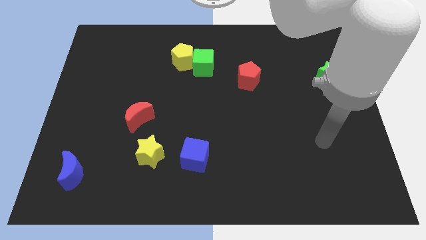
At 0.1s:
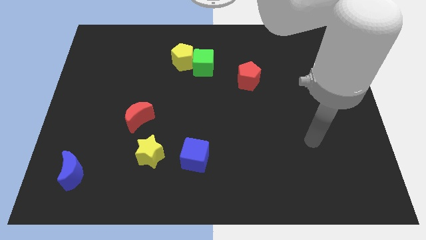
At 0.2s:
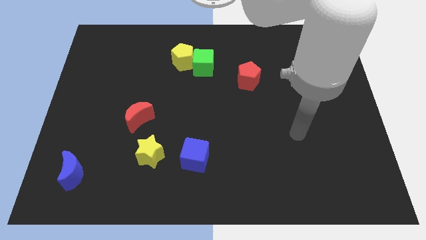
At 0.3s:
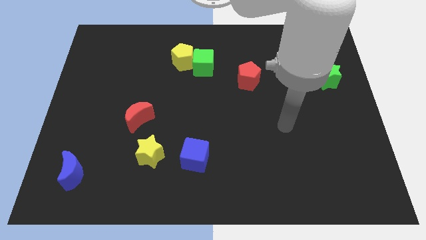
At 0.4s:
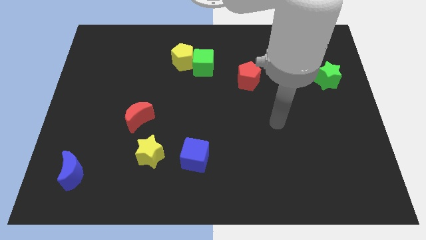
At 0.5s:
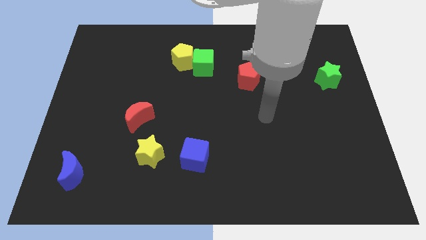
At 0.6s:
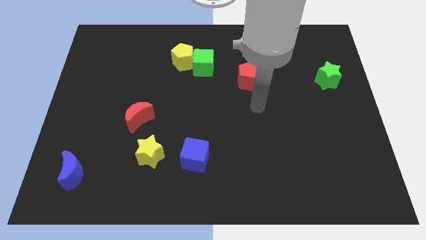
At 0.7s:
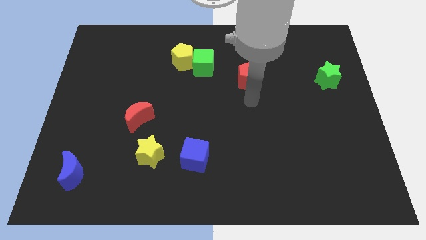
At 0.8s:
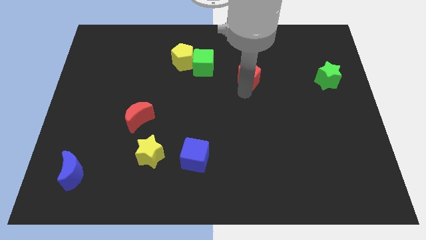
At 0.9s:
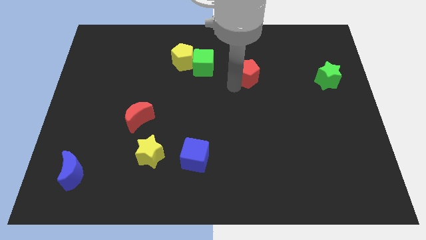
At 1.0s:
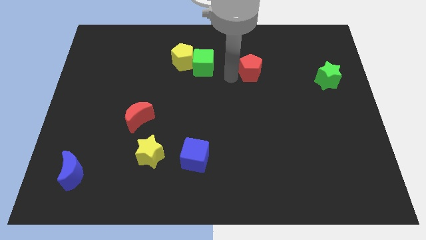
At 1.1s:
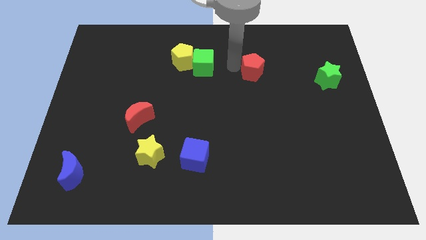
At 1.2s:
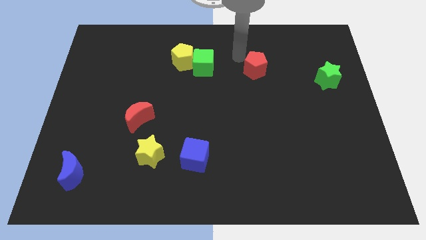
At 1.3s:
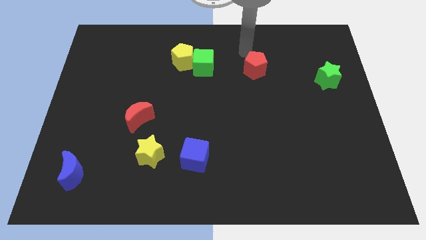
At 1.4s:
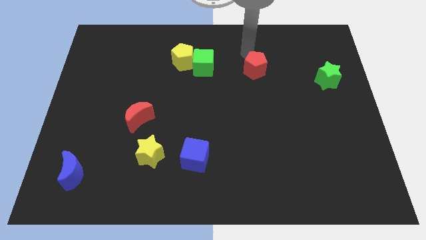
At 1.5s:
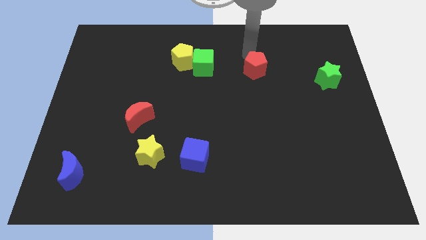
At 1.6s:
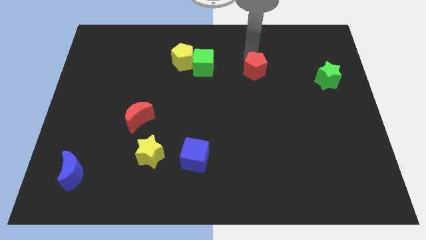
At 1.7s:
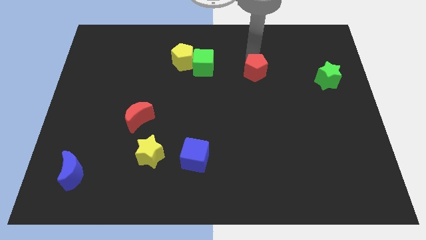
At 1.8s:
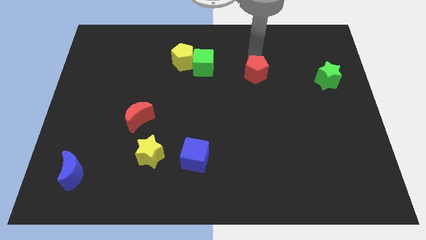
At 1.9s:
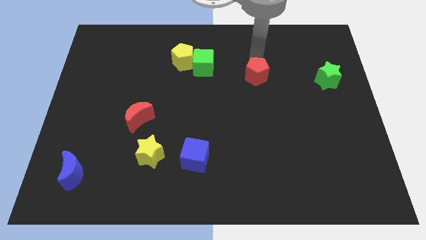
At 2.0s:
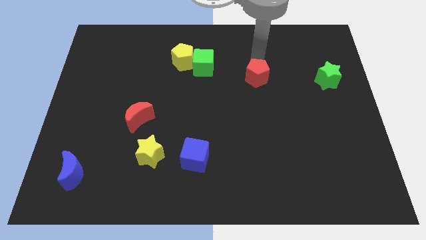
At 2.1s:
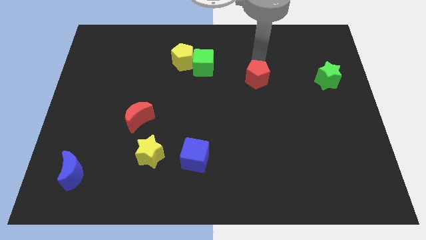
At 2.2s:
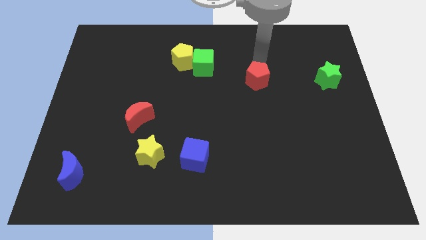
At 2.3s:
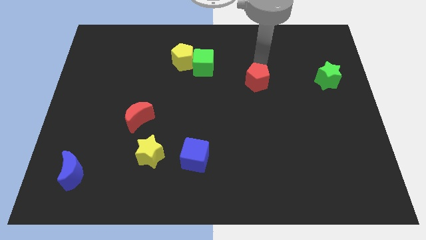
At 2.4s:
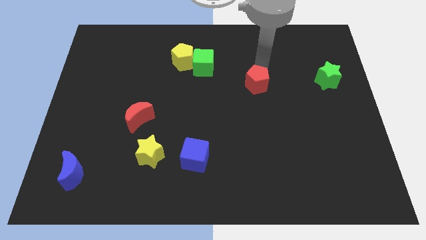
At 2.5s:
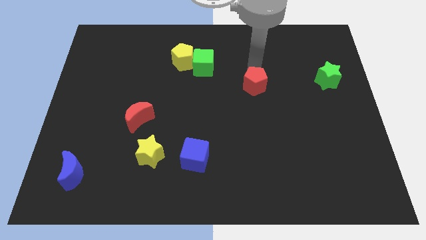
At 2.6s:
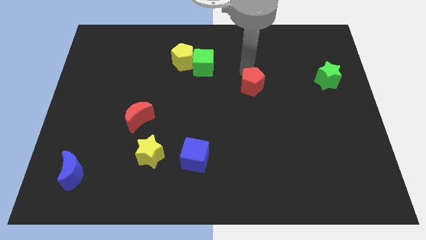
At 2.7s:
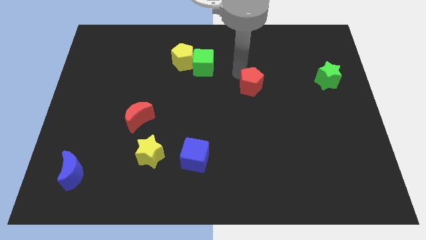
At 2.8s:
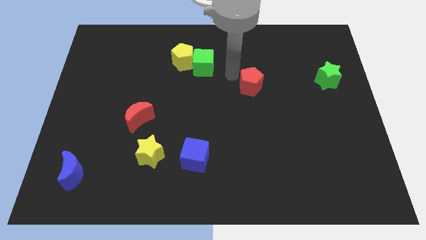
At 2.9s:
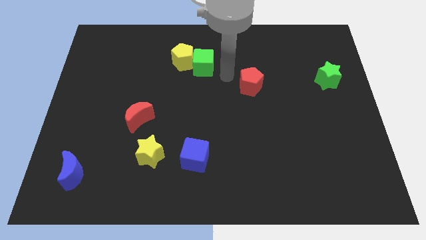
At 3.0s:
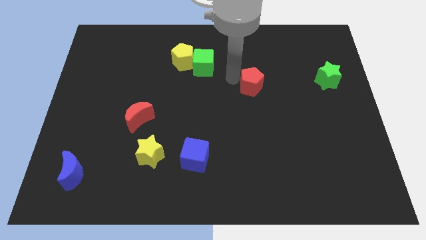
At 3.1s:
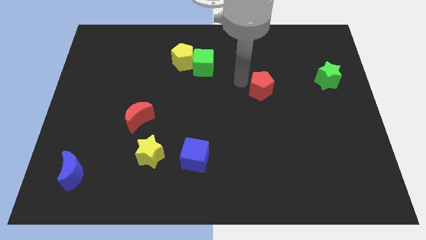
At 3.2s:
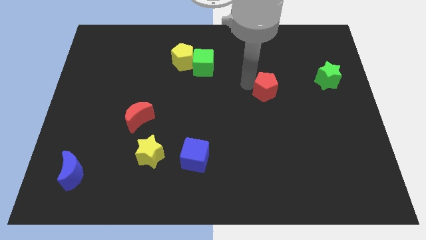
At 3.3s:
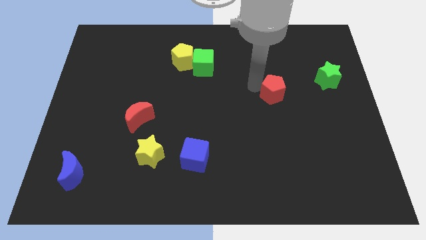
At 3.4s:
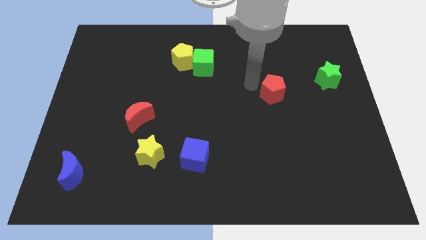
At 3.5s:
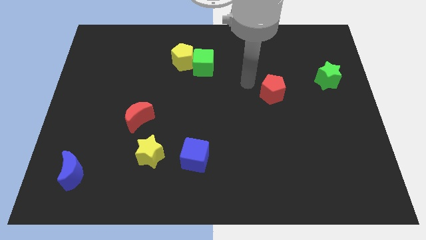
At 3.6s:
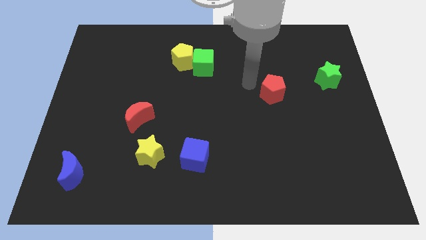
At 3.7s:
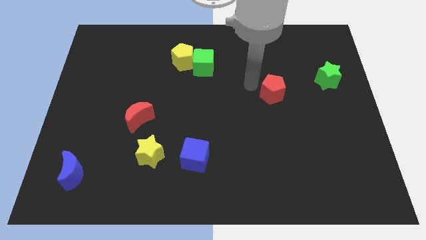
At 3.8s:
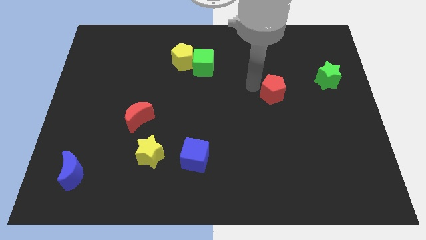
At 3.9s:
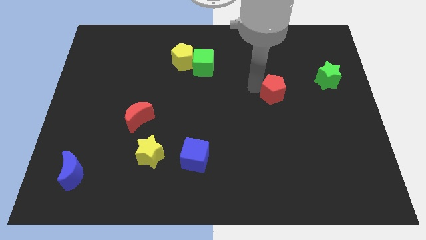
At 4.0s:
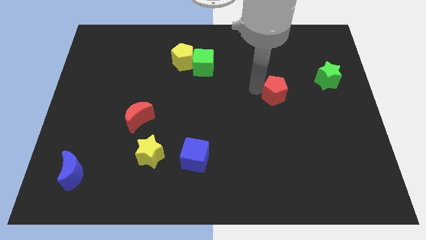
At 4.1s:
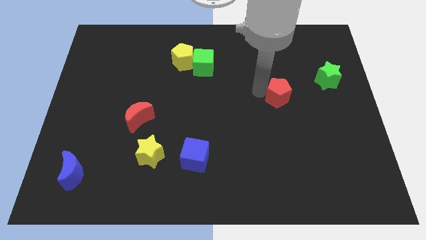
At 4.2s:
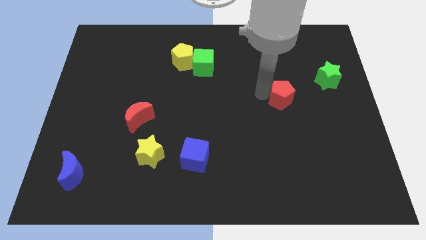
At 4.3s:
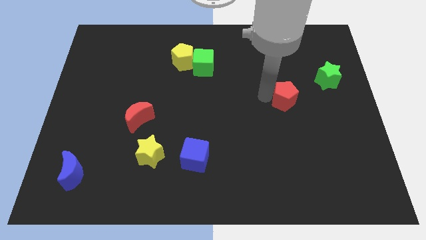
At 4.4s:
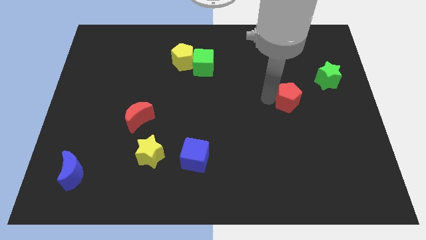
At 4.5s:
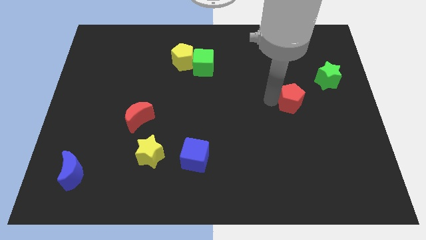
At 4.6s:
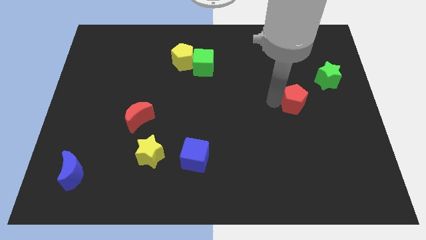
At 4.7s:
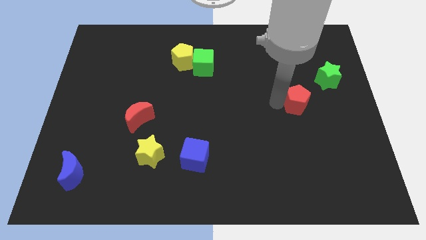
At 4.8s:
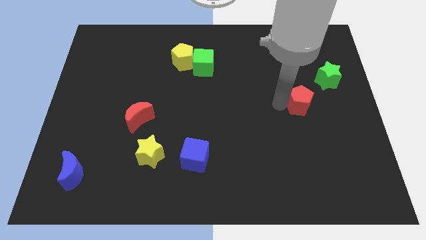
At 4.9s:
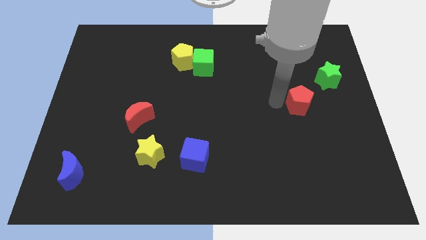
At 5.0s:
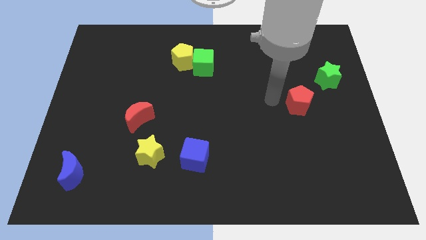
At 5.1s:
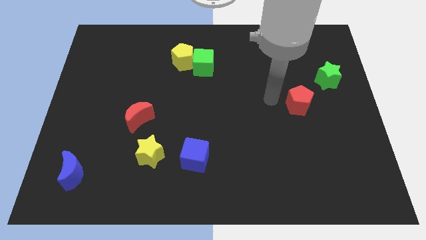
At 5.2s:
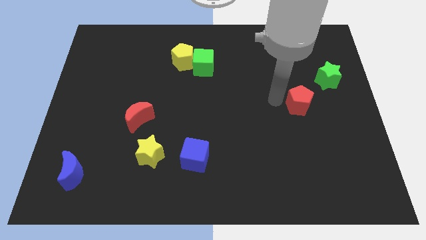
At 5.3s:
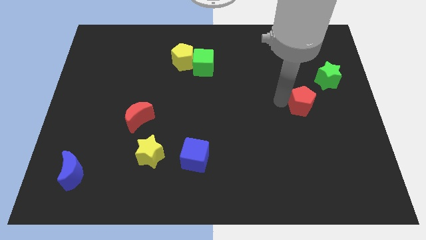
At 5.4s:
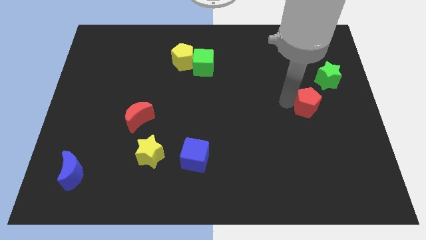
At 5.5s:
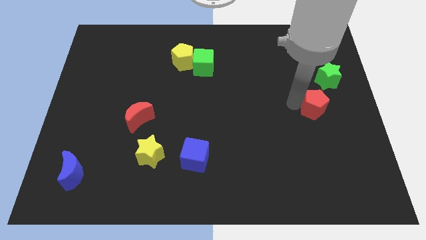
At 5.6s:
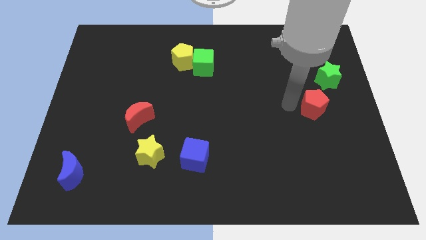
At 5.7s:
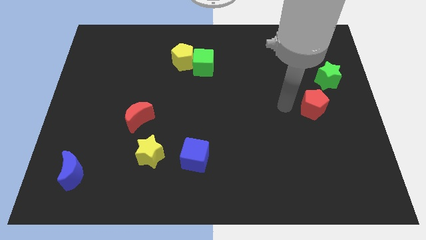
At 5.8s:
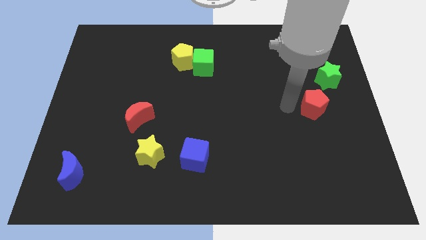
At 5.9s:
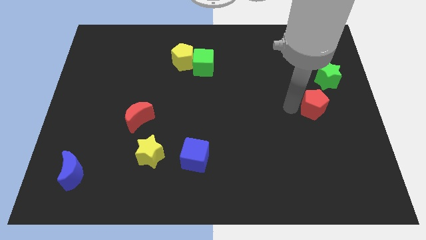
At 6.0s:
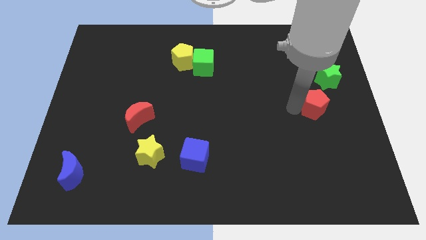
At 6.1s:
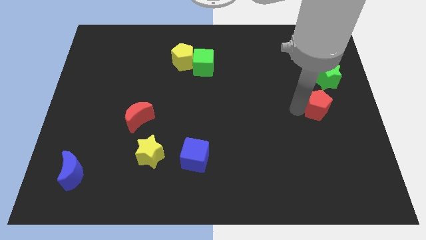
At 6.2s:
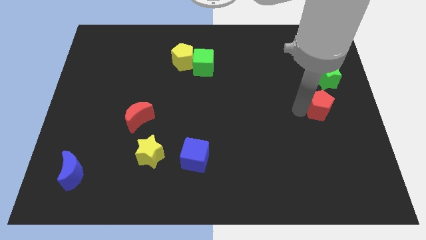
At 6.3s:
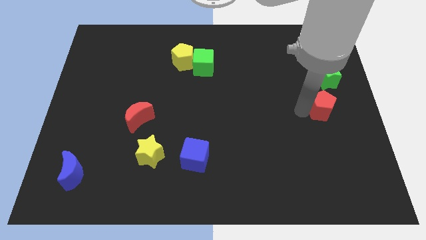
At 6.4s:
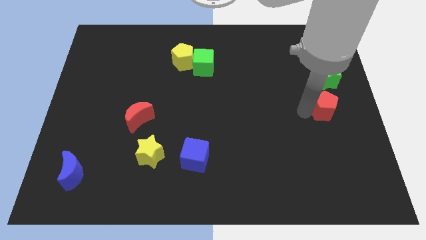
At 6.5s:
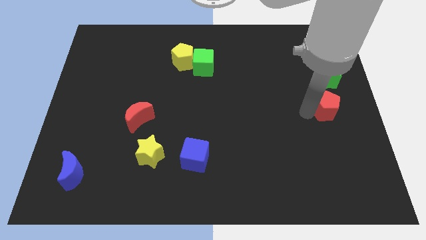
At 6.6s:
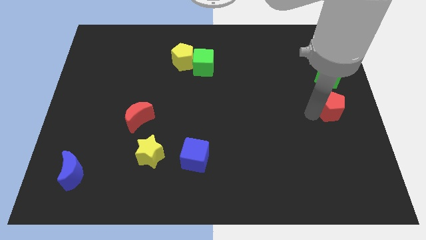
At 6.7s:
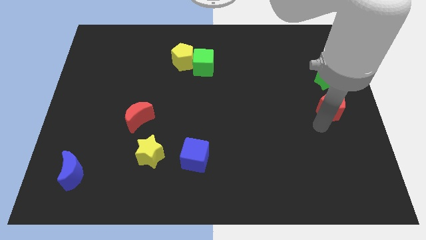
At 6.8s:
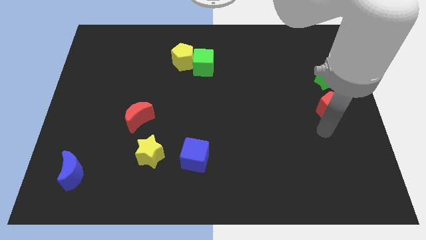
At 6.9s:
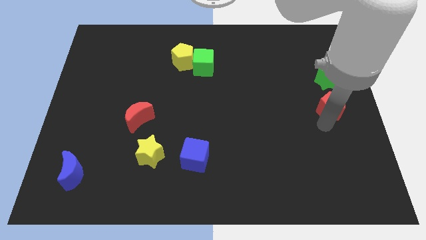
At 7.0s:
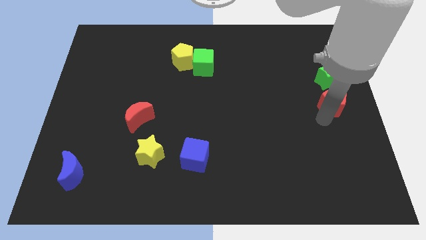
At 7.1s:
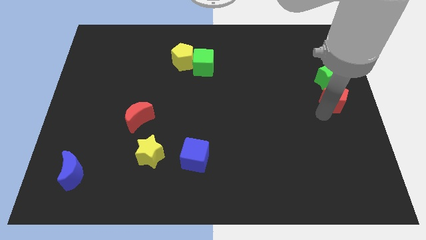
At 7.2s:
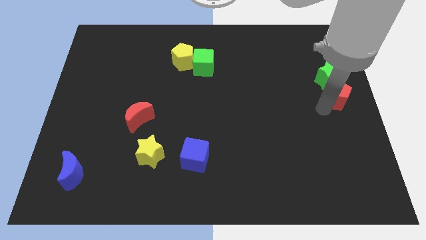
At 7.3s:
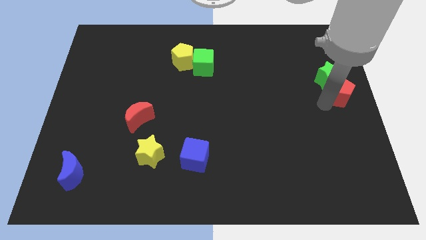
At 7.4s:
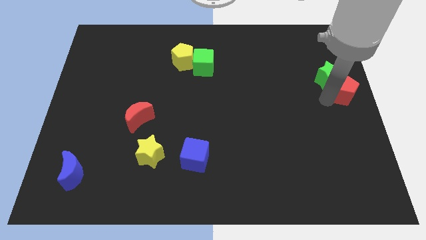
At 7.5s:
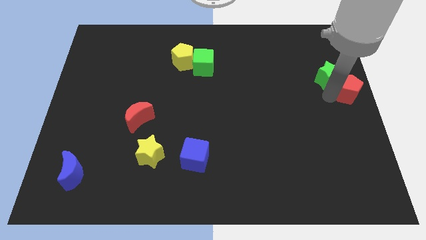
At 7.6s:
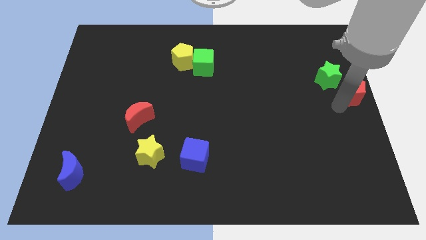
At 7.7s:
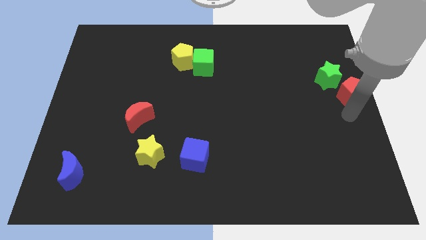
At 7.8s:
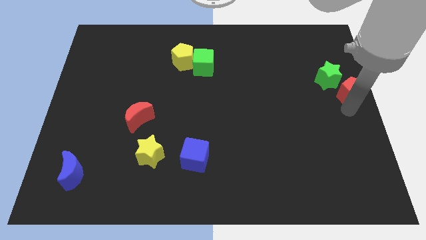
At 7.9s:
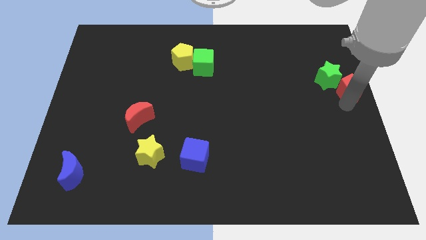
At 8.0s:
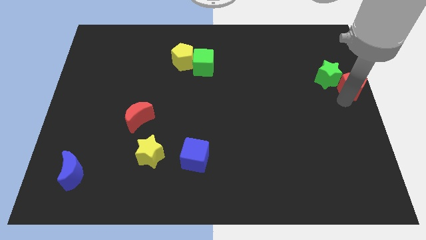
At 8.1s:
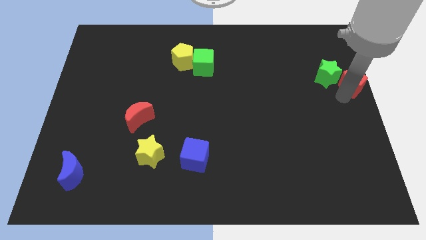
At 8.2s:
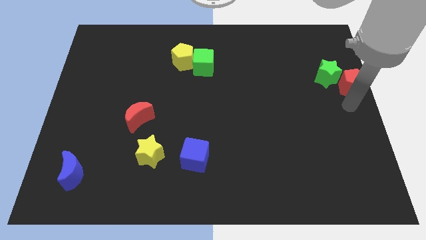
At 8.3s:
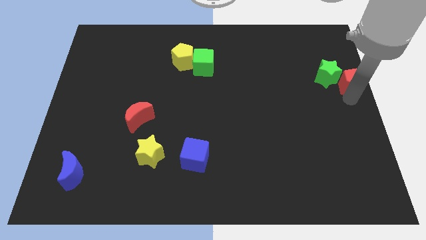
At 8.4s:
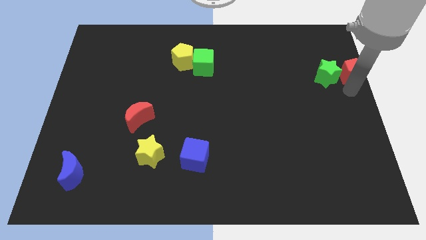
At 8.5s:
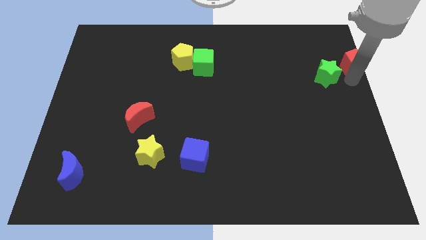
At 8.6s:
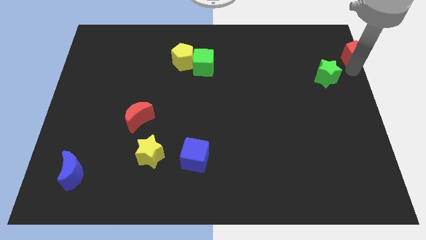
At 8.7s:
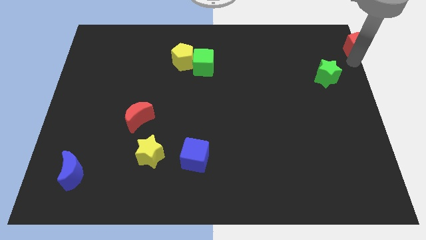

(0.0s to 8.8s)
slide the red pentagon to the upper right corner
